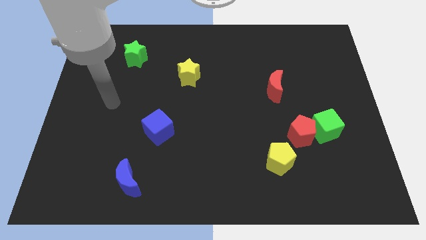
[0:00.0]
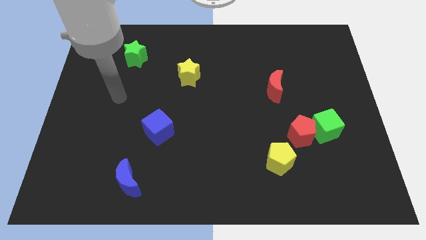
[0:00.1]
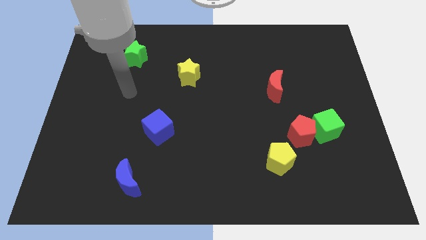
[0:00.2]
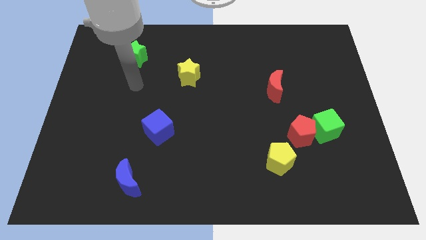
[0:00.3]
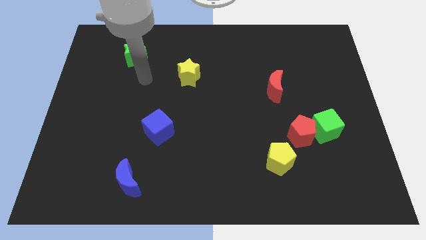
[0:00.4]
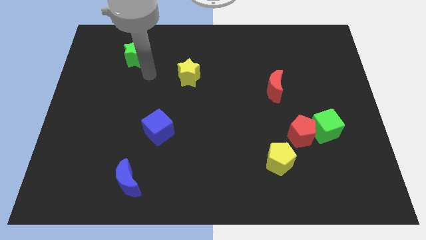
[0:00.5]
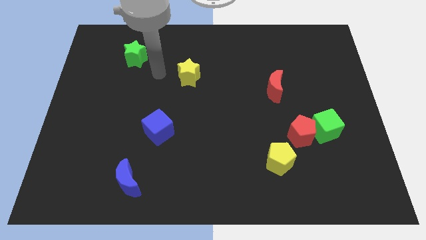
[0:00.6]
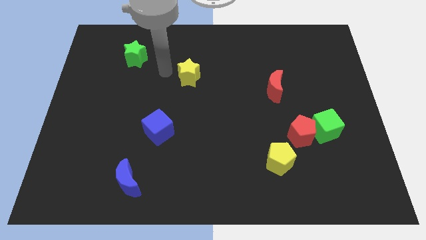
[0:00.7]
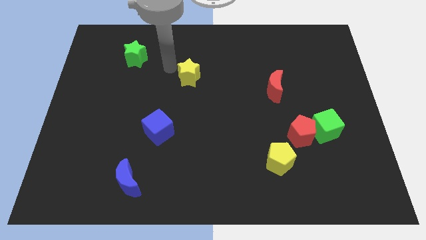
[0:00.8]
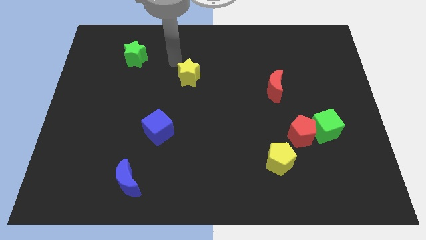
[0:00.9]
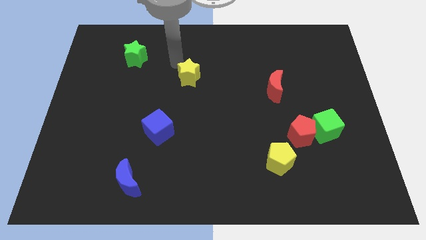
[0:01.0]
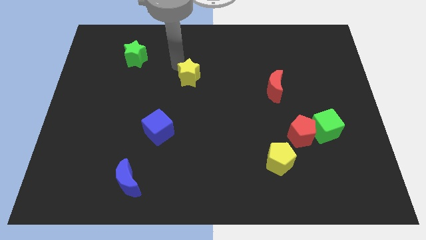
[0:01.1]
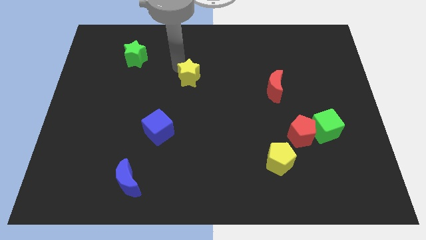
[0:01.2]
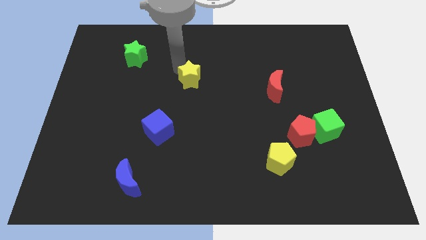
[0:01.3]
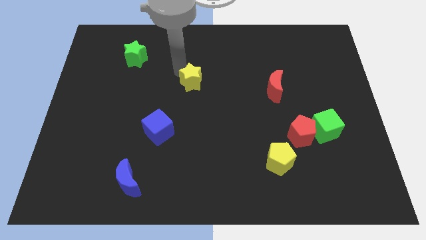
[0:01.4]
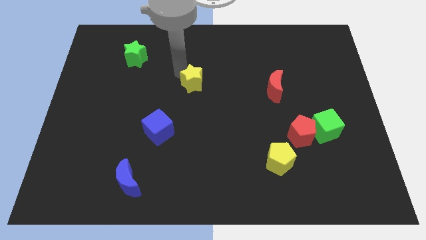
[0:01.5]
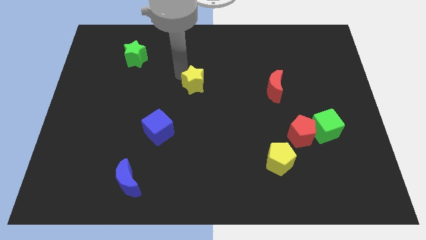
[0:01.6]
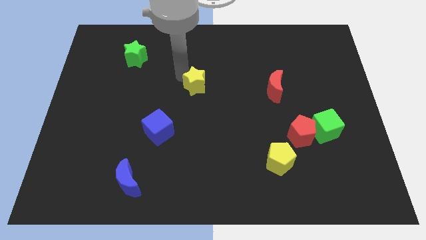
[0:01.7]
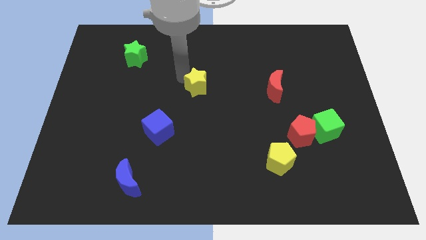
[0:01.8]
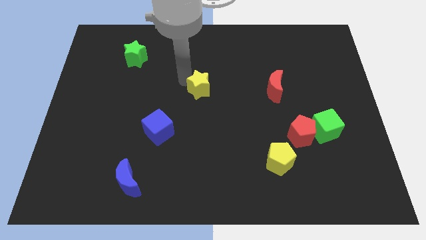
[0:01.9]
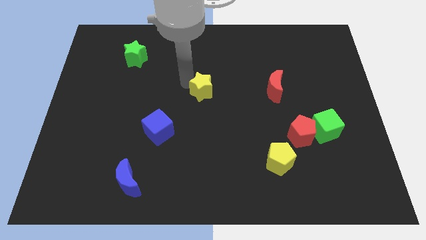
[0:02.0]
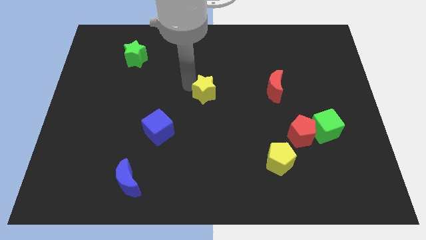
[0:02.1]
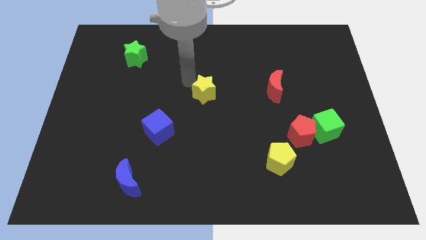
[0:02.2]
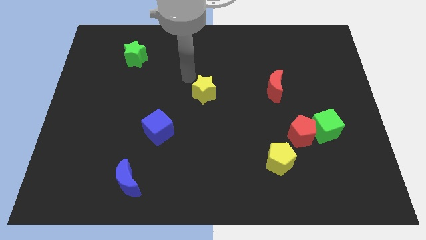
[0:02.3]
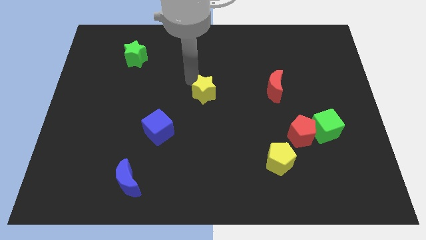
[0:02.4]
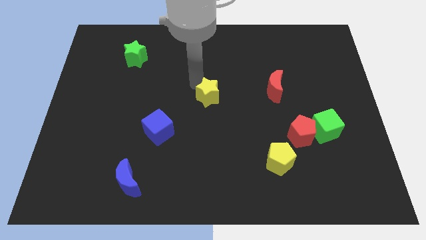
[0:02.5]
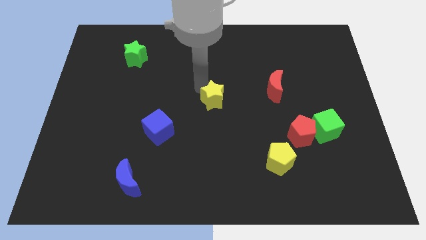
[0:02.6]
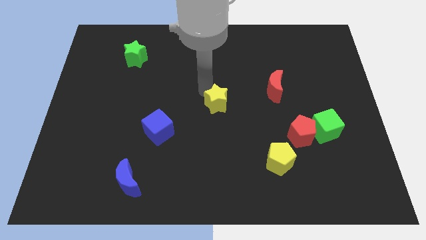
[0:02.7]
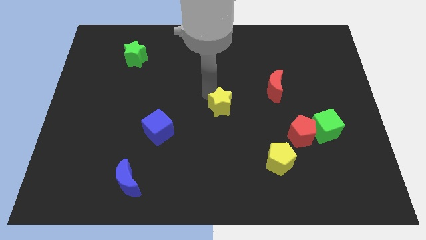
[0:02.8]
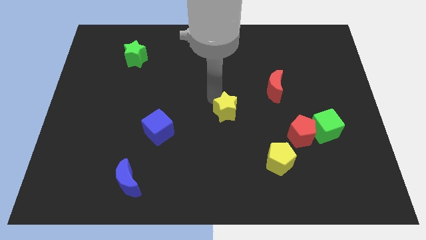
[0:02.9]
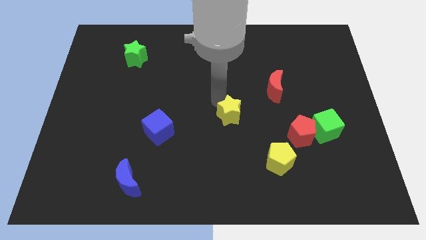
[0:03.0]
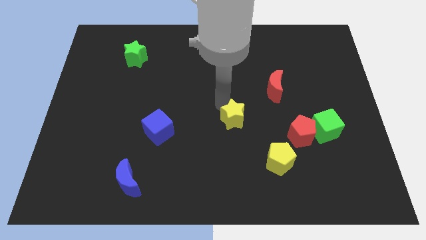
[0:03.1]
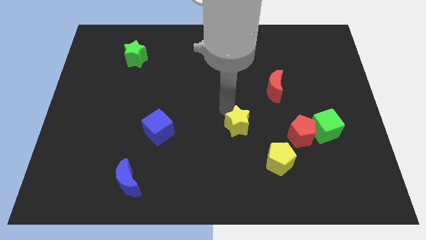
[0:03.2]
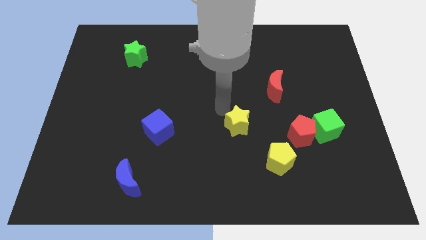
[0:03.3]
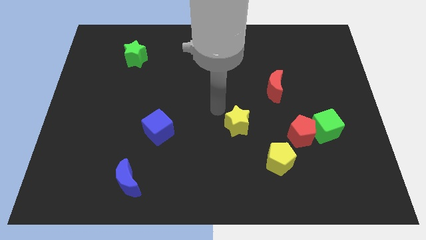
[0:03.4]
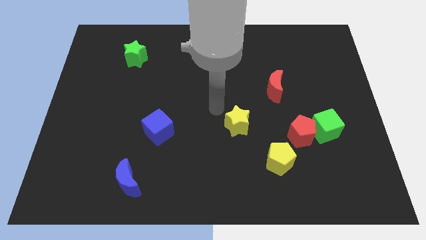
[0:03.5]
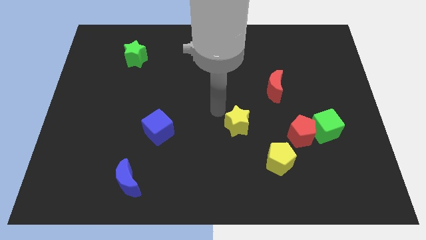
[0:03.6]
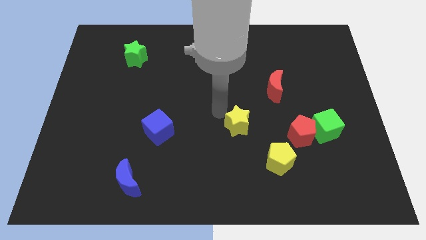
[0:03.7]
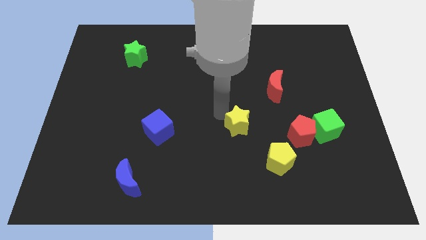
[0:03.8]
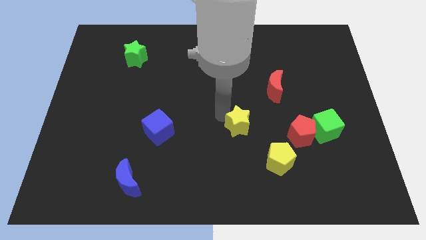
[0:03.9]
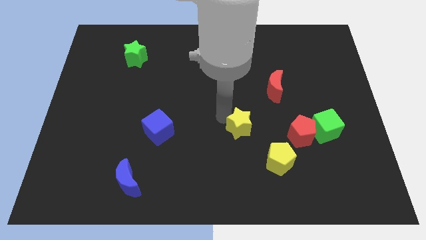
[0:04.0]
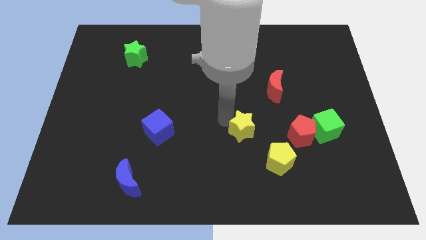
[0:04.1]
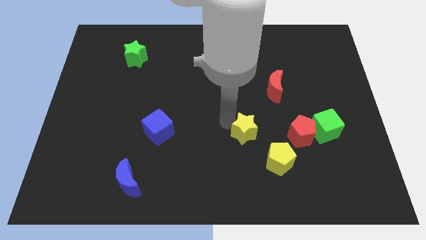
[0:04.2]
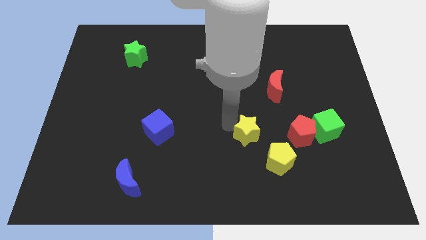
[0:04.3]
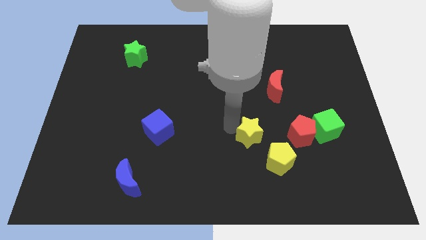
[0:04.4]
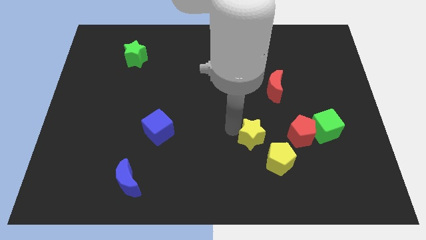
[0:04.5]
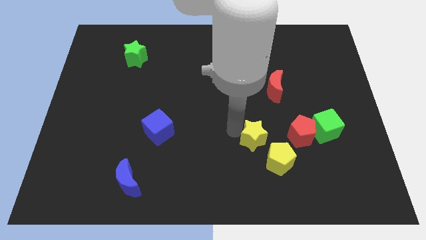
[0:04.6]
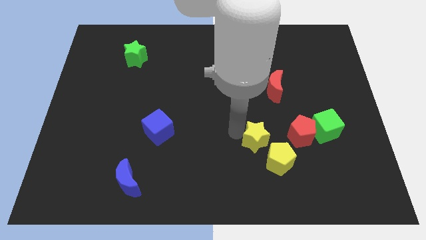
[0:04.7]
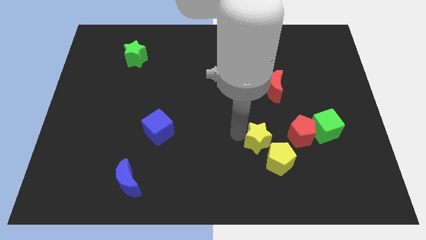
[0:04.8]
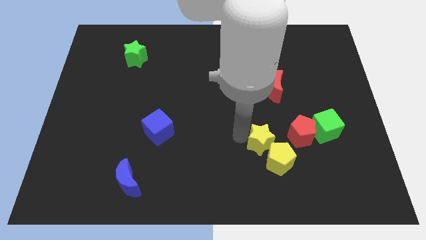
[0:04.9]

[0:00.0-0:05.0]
slide the yellow star close to the yellow pentagon

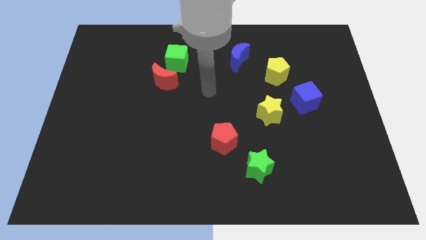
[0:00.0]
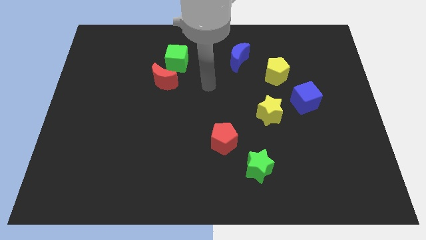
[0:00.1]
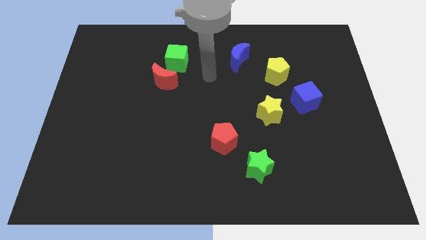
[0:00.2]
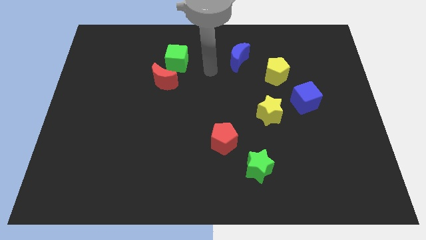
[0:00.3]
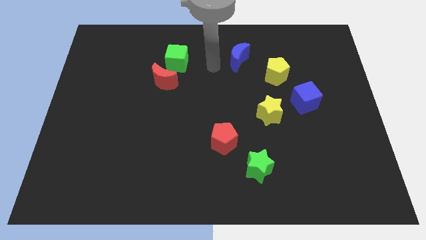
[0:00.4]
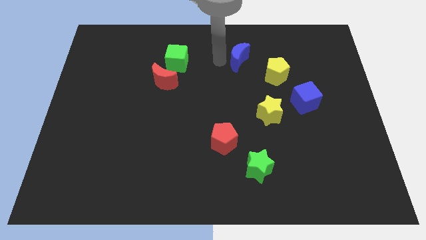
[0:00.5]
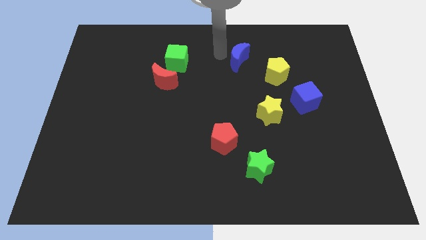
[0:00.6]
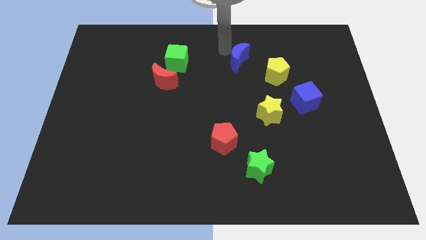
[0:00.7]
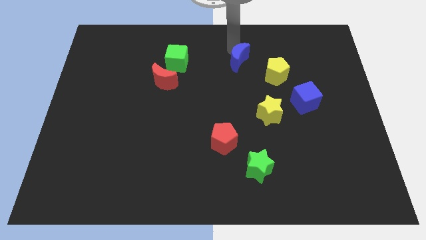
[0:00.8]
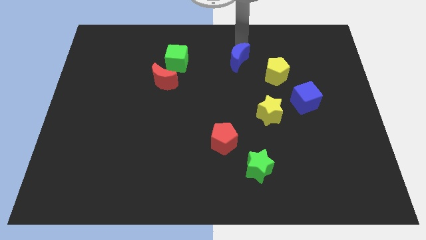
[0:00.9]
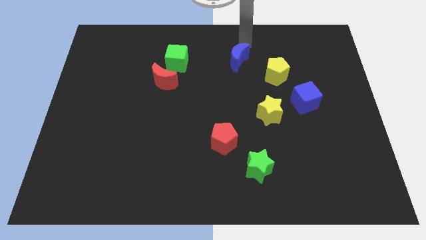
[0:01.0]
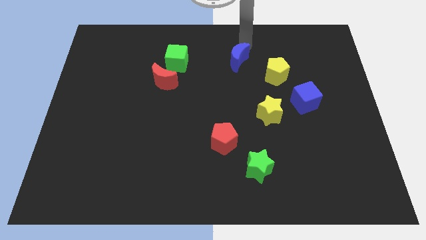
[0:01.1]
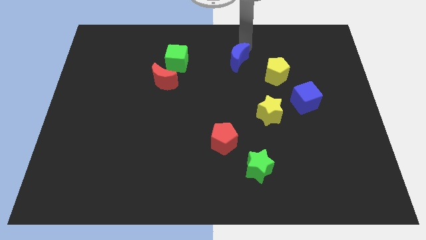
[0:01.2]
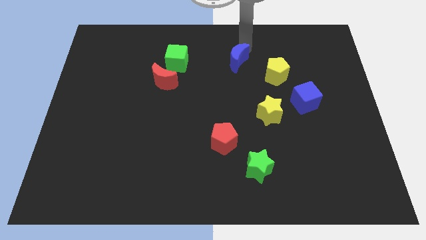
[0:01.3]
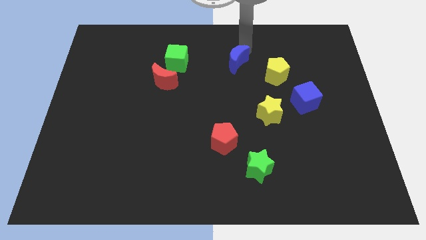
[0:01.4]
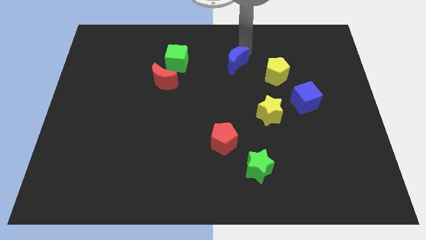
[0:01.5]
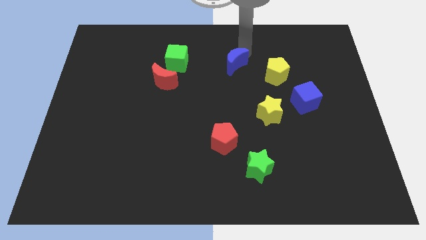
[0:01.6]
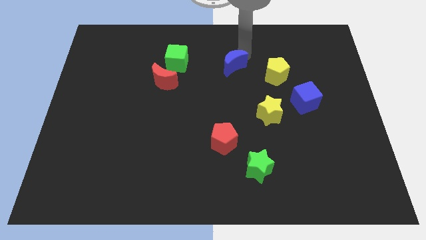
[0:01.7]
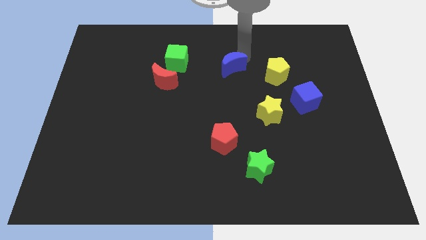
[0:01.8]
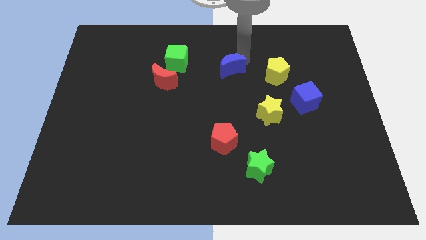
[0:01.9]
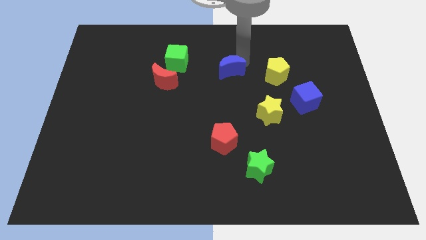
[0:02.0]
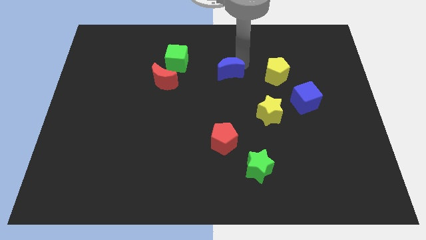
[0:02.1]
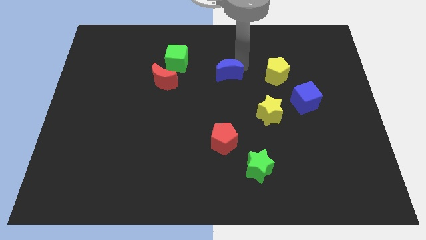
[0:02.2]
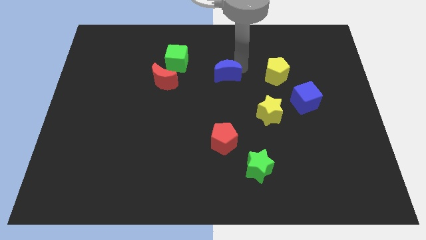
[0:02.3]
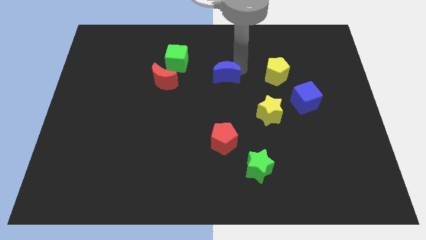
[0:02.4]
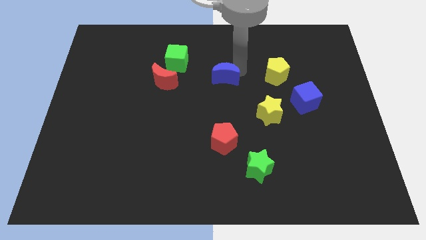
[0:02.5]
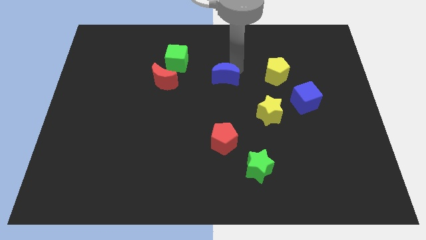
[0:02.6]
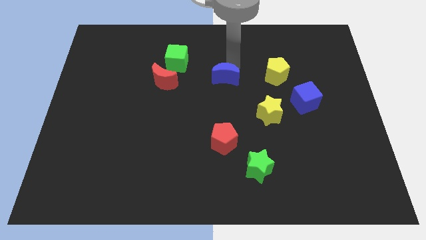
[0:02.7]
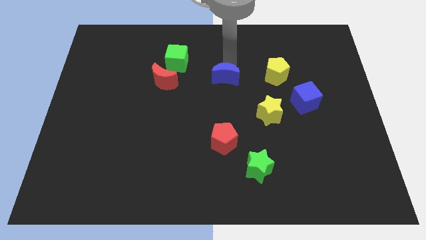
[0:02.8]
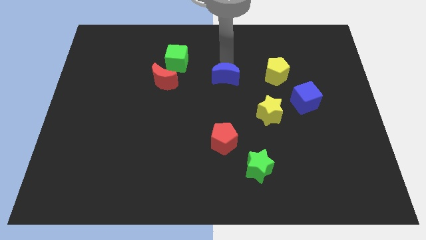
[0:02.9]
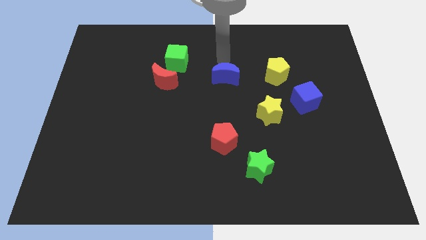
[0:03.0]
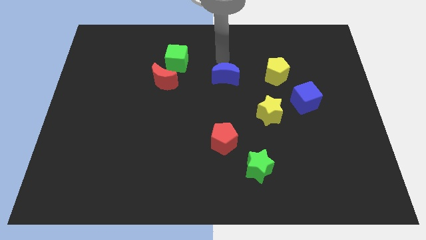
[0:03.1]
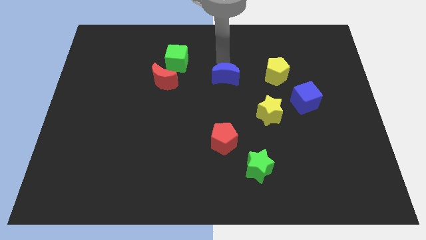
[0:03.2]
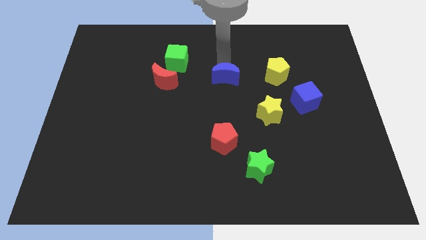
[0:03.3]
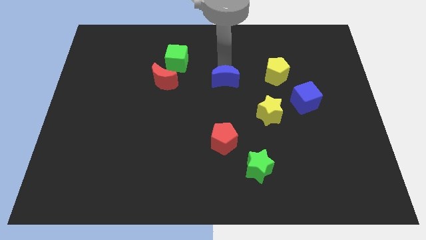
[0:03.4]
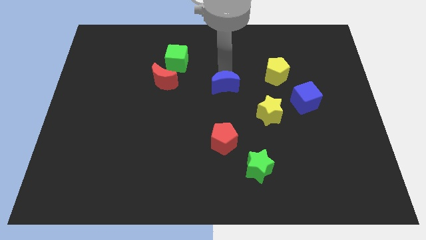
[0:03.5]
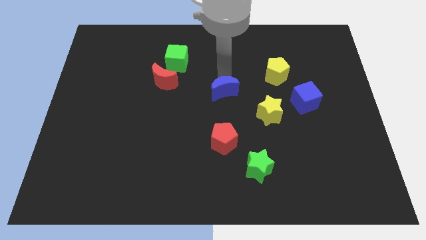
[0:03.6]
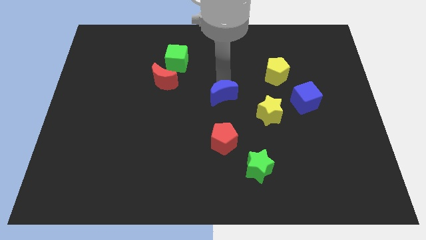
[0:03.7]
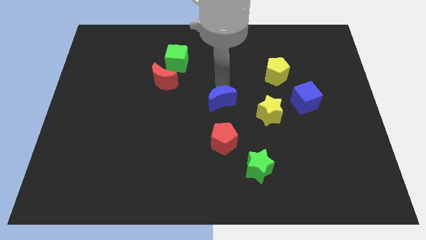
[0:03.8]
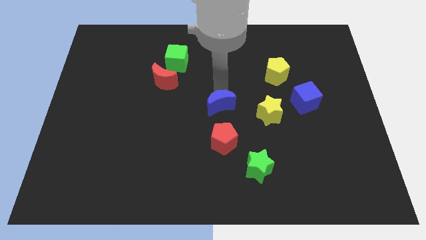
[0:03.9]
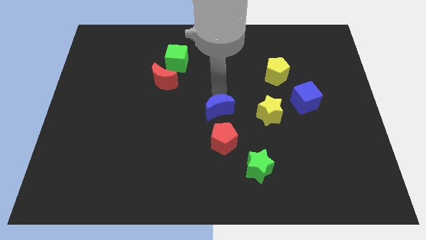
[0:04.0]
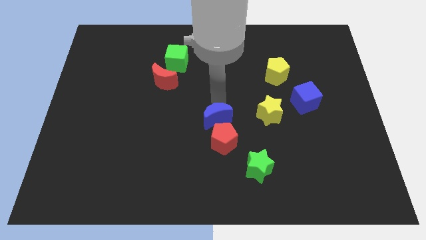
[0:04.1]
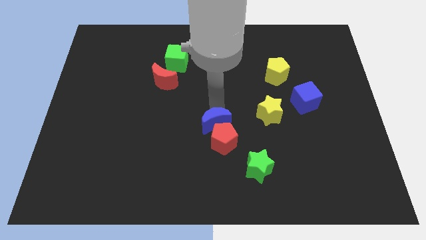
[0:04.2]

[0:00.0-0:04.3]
push the blue moon to the red pentagon
